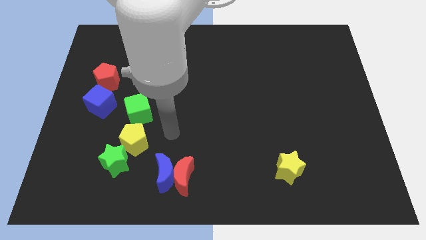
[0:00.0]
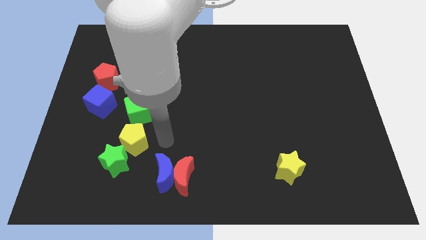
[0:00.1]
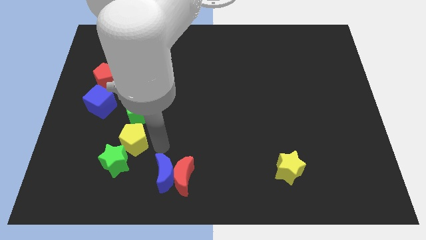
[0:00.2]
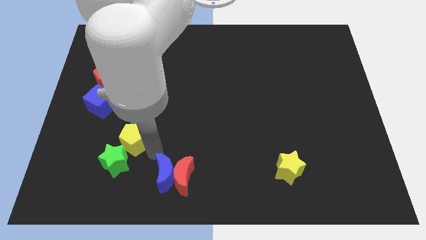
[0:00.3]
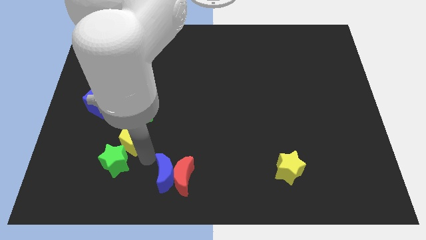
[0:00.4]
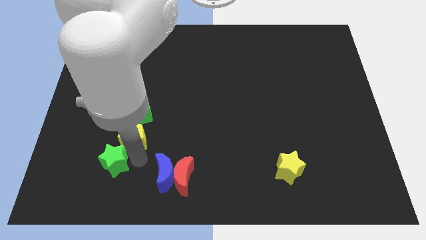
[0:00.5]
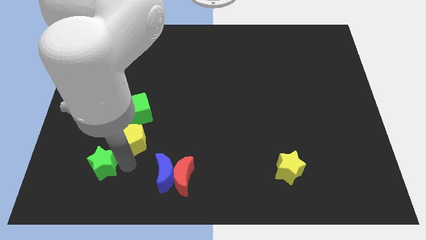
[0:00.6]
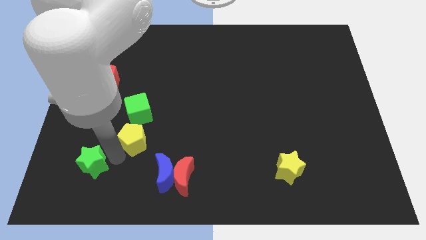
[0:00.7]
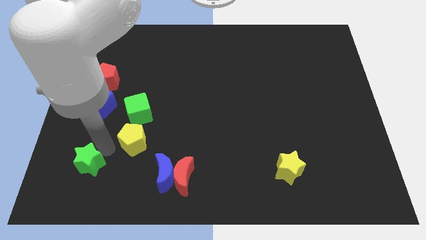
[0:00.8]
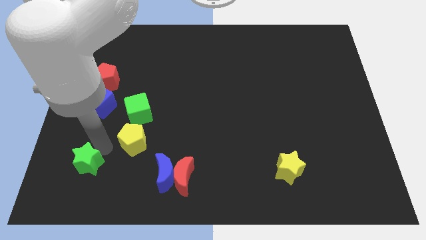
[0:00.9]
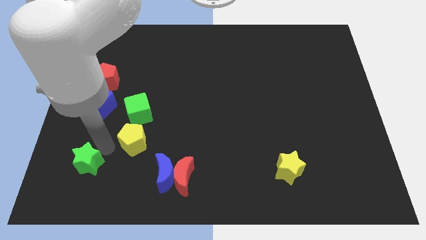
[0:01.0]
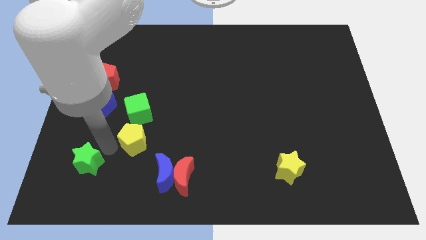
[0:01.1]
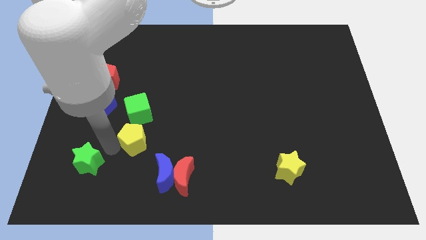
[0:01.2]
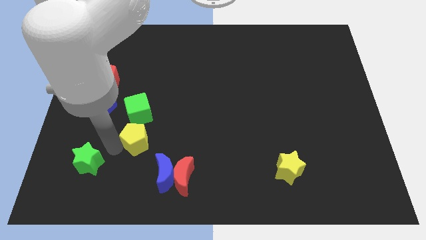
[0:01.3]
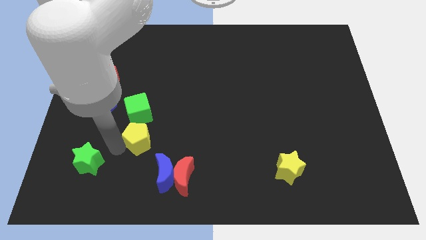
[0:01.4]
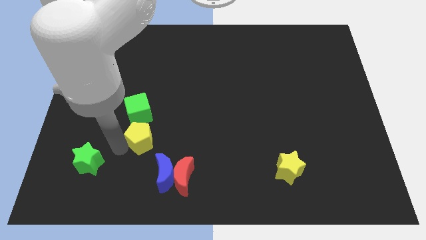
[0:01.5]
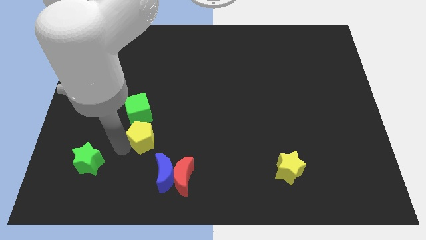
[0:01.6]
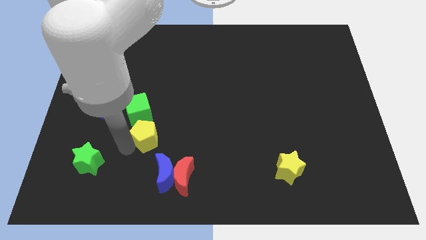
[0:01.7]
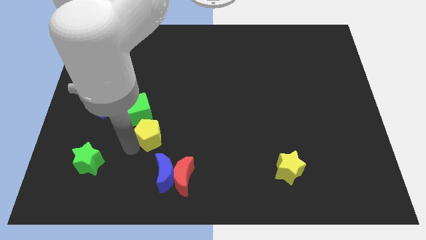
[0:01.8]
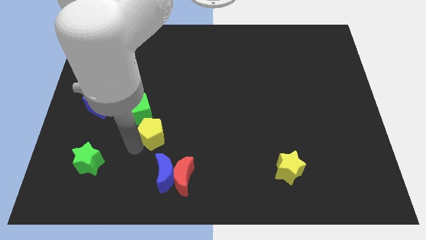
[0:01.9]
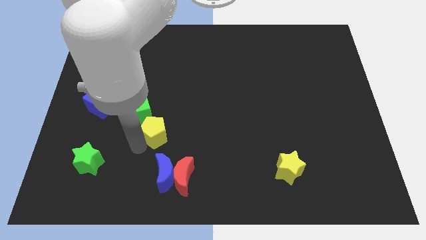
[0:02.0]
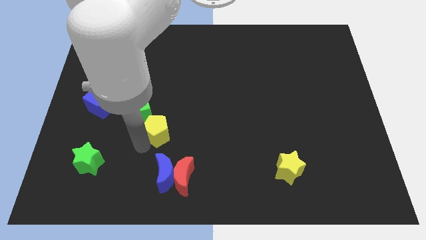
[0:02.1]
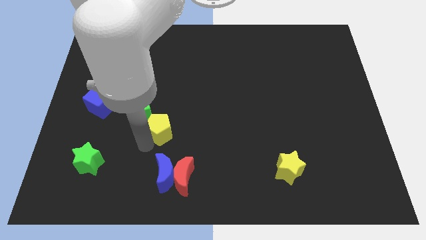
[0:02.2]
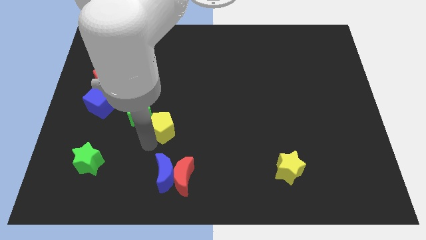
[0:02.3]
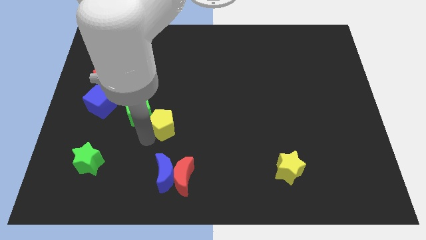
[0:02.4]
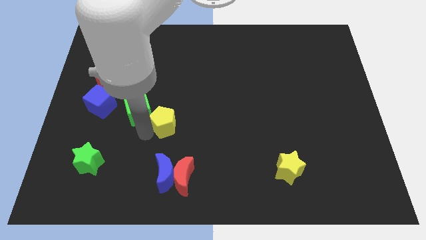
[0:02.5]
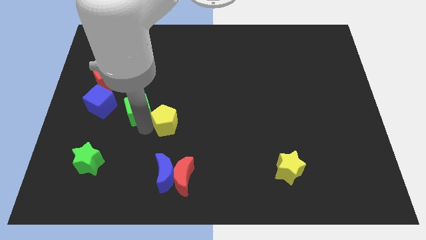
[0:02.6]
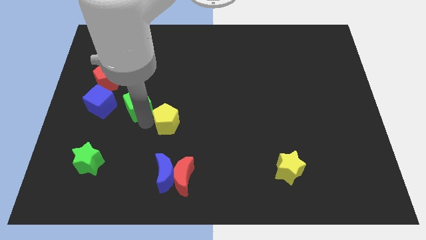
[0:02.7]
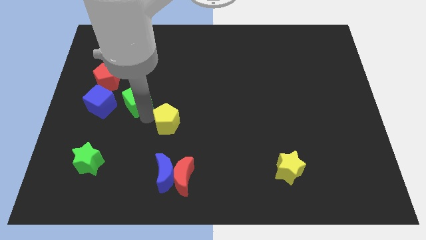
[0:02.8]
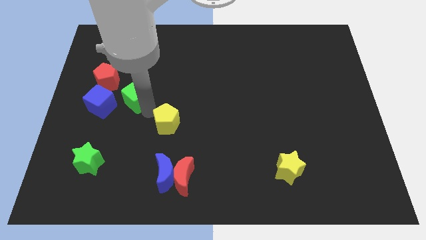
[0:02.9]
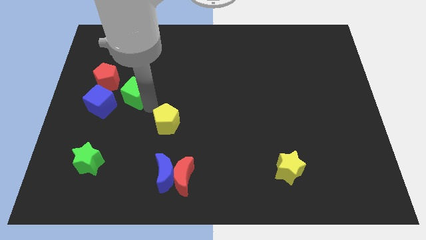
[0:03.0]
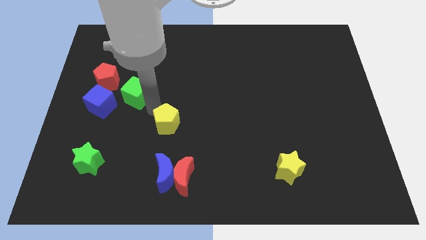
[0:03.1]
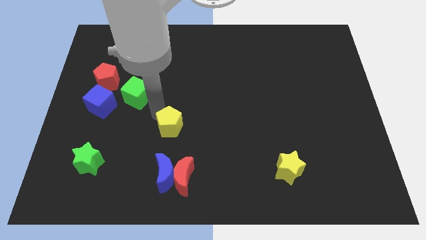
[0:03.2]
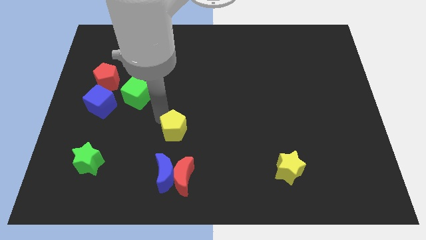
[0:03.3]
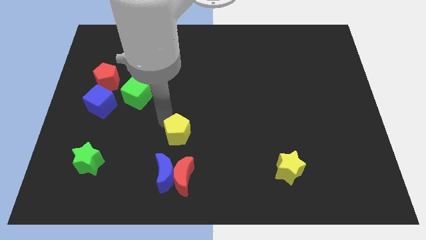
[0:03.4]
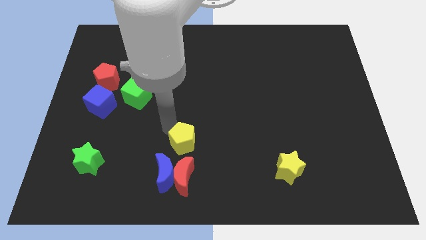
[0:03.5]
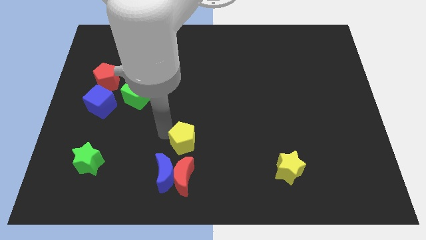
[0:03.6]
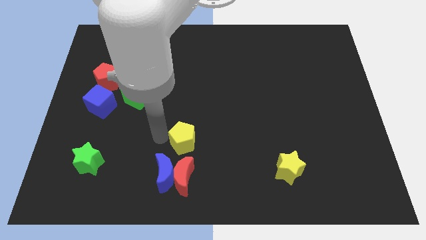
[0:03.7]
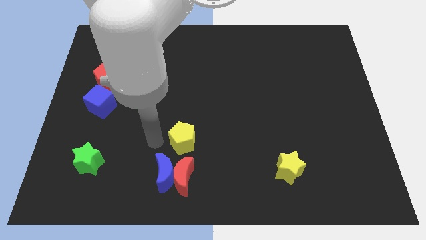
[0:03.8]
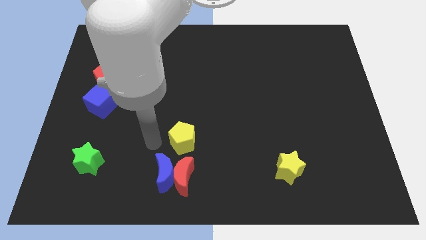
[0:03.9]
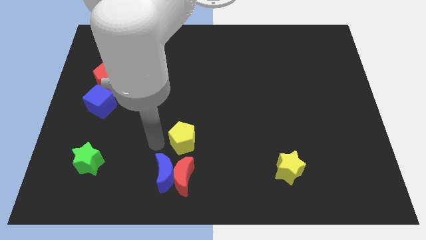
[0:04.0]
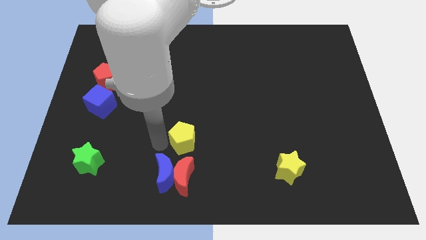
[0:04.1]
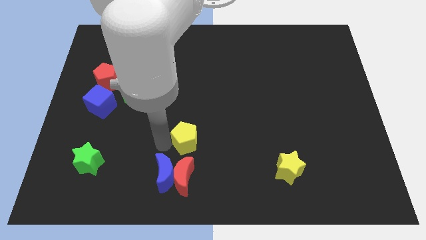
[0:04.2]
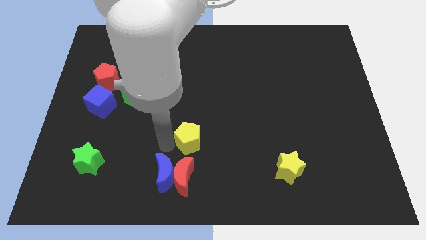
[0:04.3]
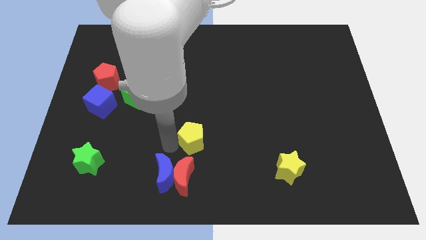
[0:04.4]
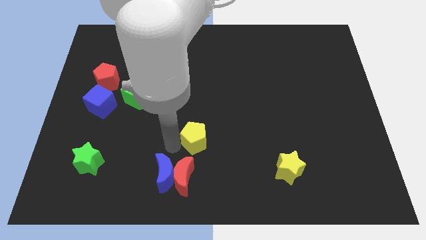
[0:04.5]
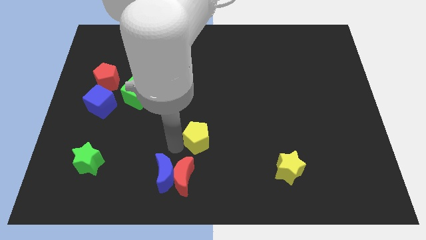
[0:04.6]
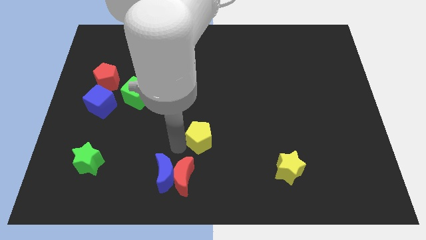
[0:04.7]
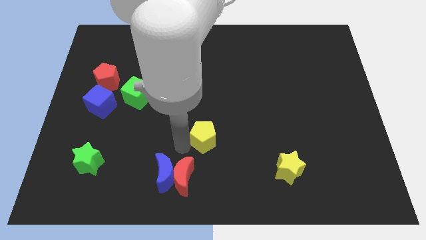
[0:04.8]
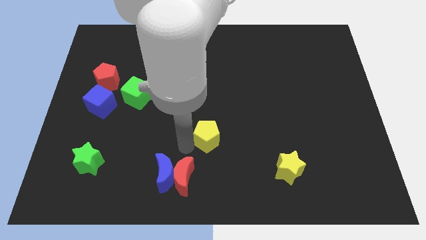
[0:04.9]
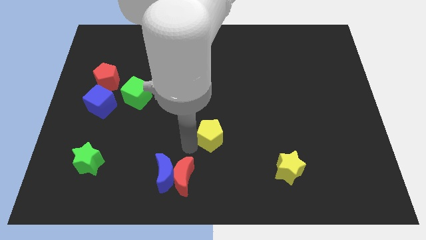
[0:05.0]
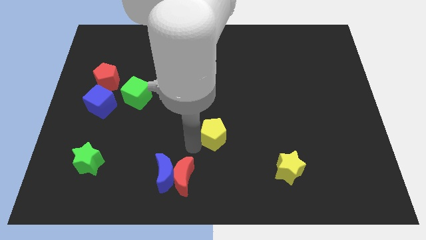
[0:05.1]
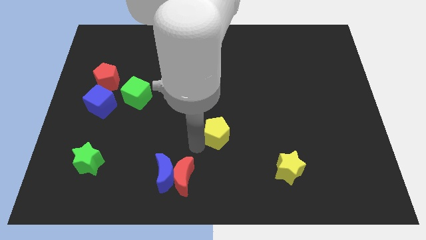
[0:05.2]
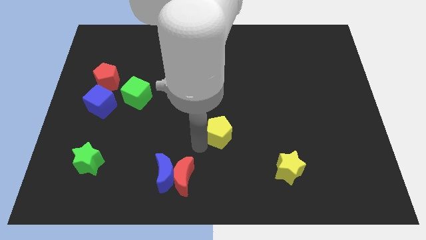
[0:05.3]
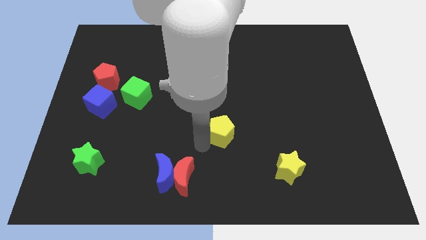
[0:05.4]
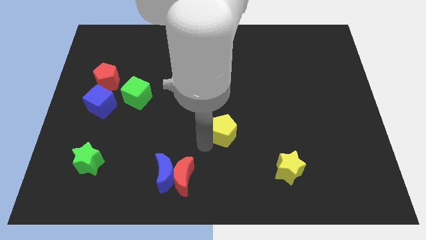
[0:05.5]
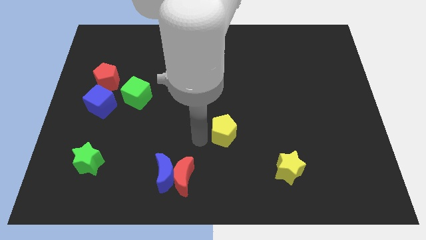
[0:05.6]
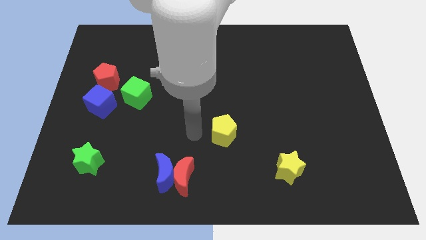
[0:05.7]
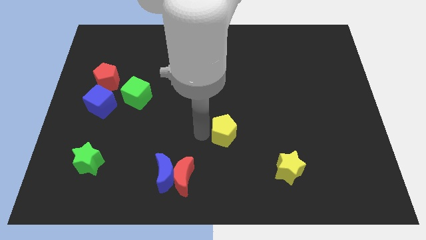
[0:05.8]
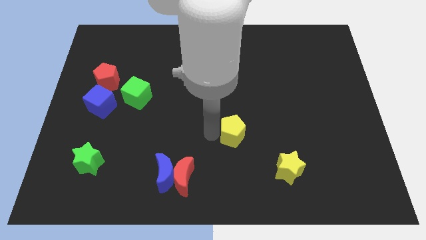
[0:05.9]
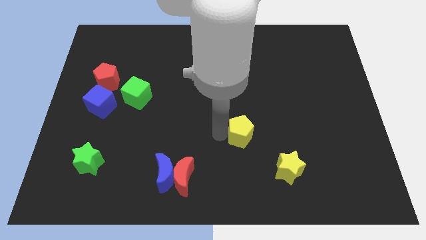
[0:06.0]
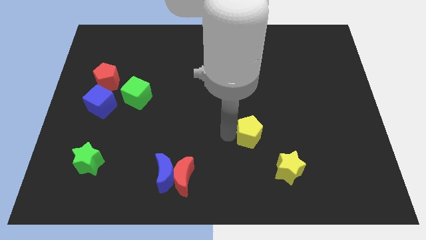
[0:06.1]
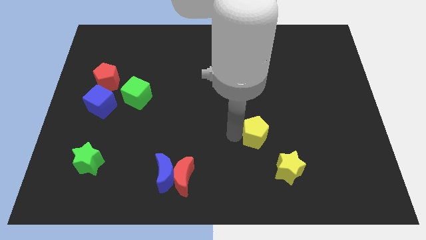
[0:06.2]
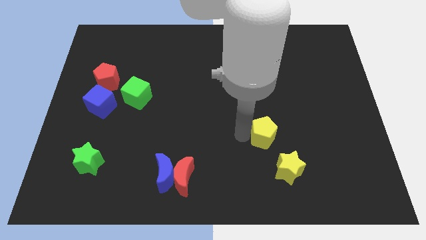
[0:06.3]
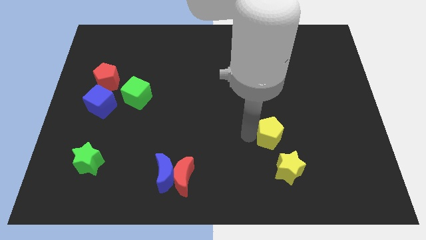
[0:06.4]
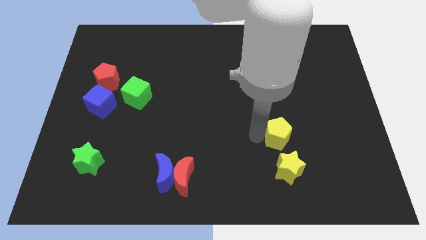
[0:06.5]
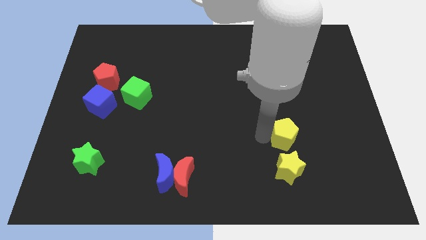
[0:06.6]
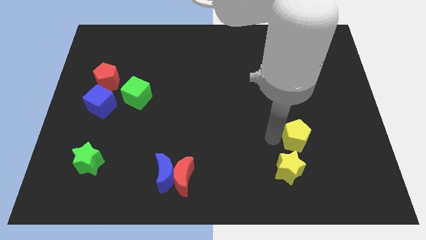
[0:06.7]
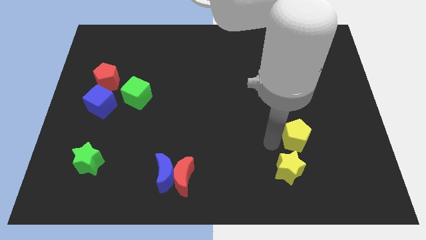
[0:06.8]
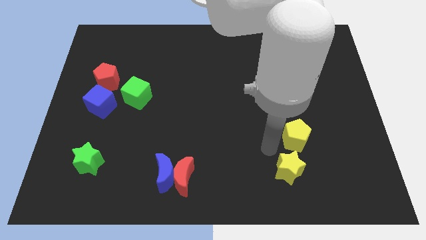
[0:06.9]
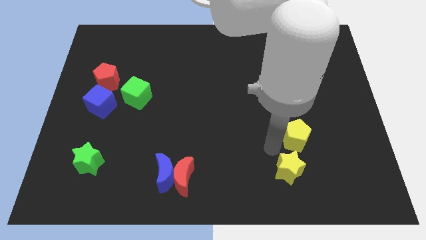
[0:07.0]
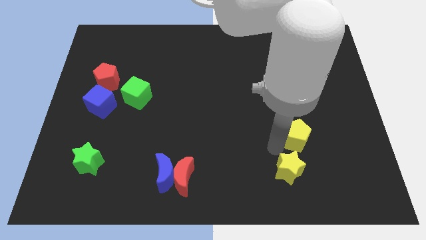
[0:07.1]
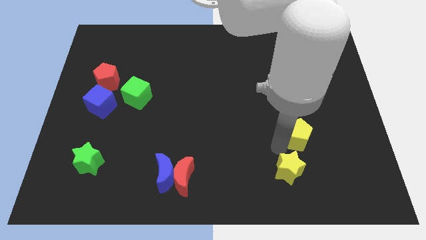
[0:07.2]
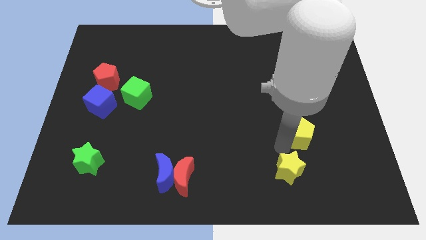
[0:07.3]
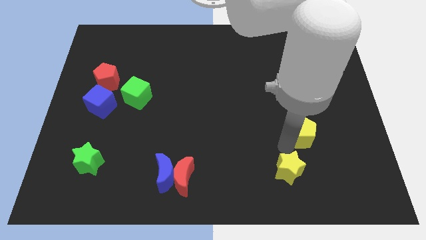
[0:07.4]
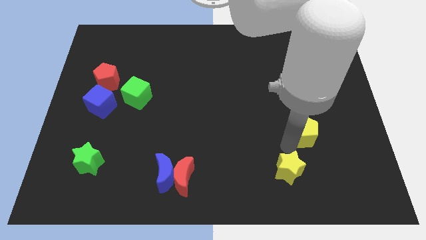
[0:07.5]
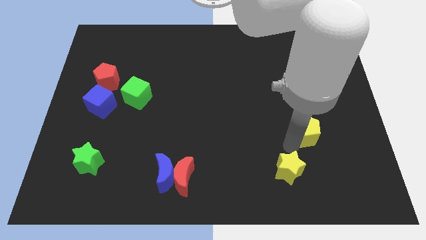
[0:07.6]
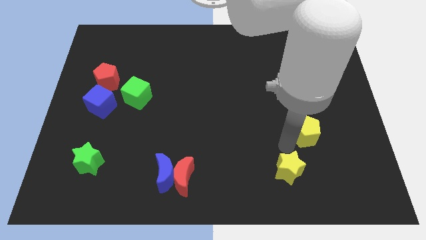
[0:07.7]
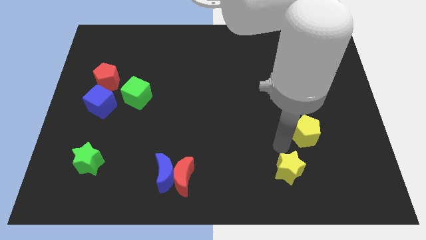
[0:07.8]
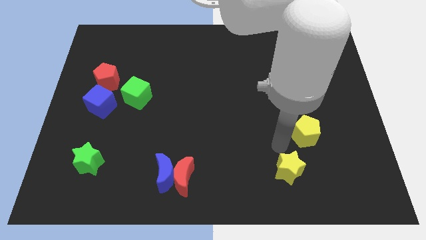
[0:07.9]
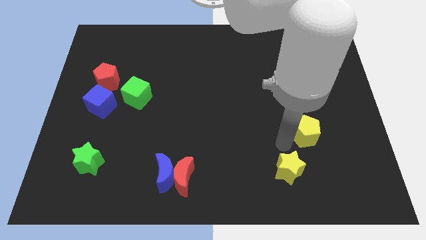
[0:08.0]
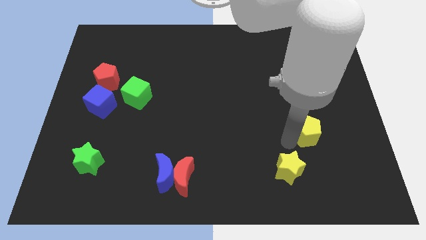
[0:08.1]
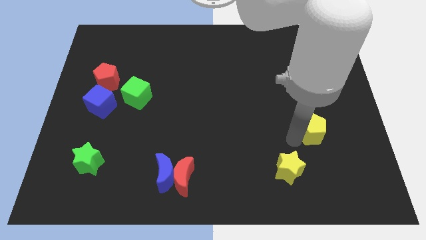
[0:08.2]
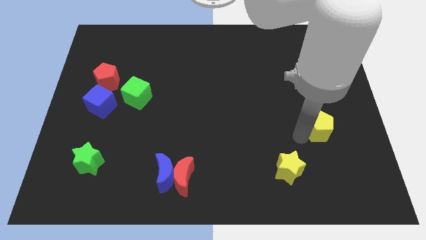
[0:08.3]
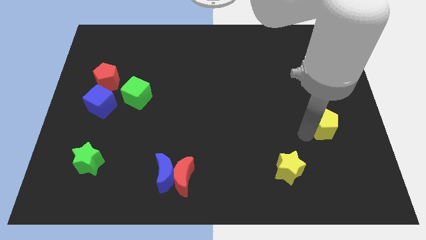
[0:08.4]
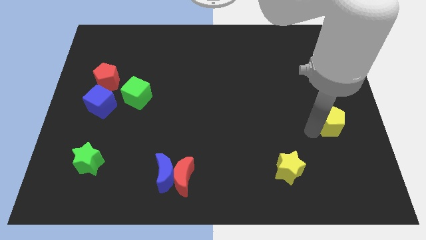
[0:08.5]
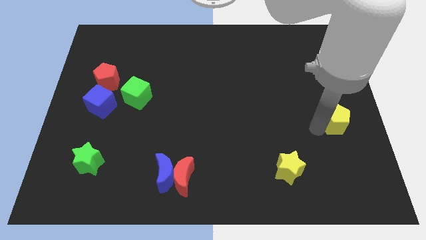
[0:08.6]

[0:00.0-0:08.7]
move the yellow pentagon to the right side of the board
